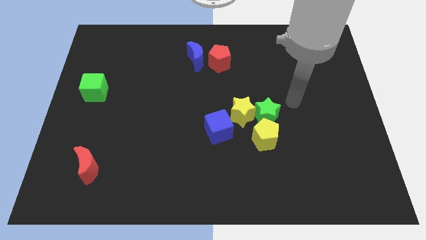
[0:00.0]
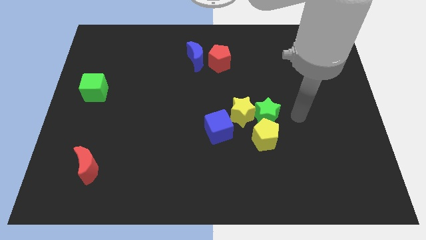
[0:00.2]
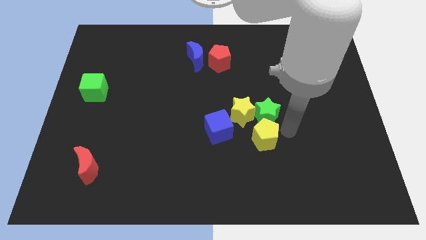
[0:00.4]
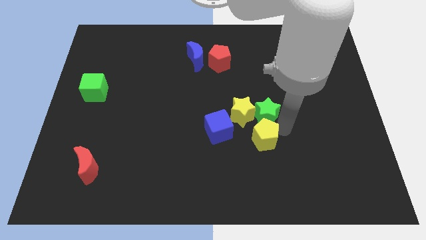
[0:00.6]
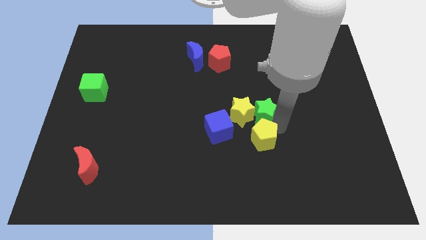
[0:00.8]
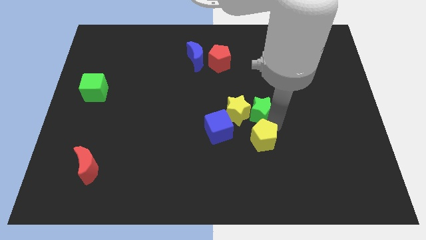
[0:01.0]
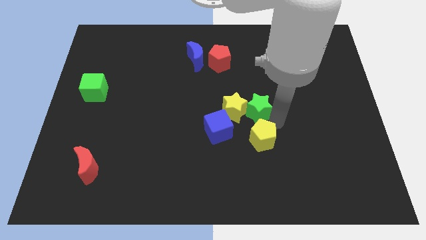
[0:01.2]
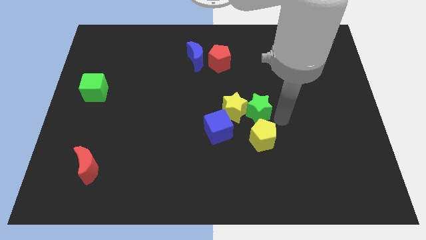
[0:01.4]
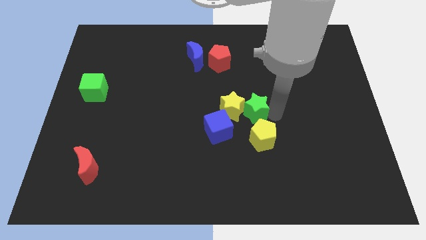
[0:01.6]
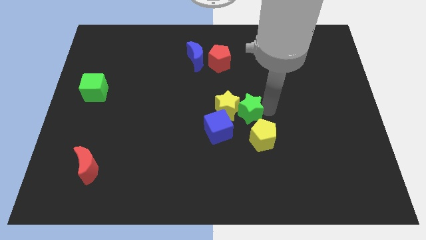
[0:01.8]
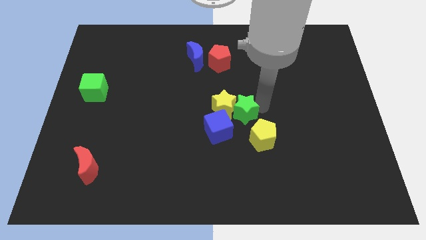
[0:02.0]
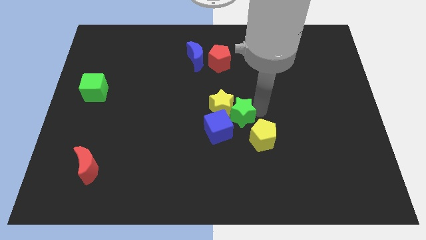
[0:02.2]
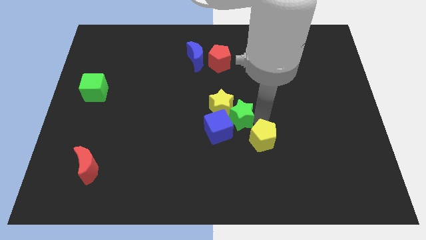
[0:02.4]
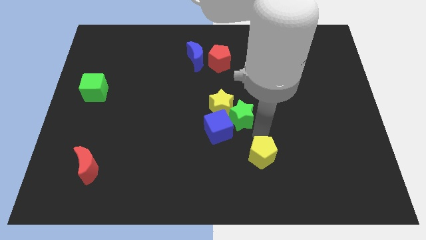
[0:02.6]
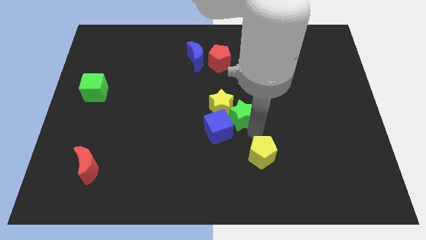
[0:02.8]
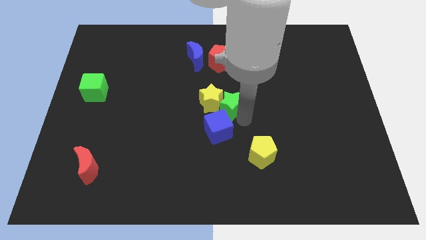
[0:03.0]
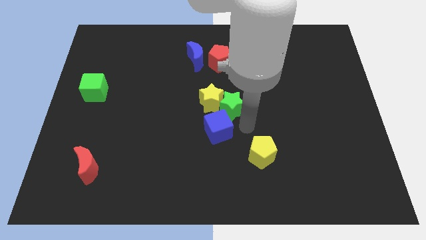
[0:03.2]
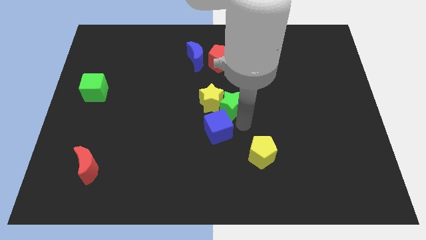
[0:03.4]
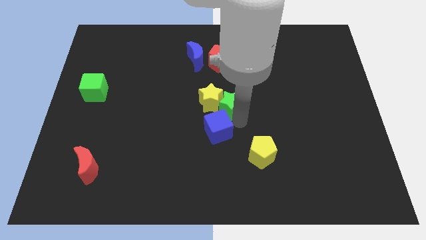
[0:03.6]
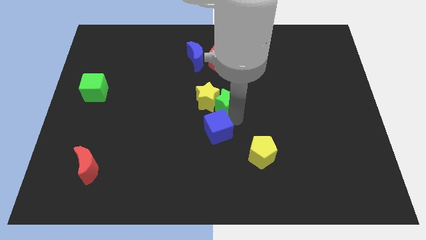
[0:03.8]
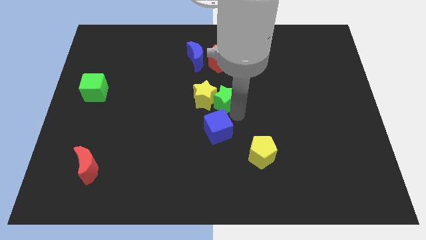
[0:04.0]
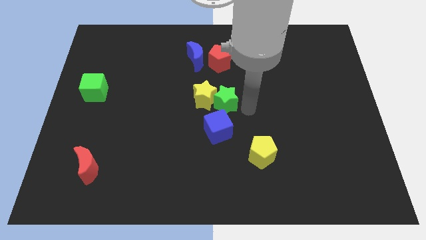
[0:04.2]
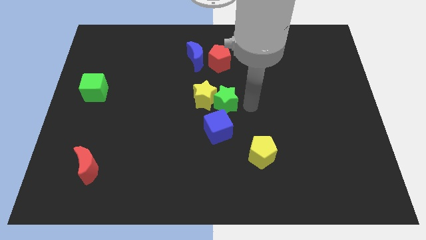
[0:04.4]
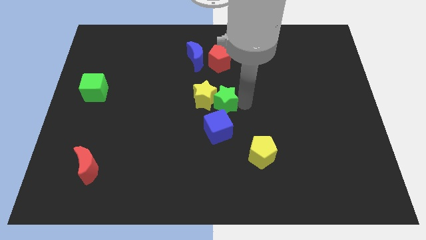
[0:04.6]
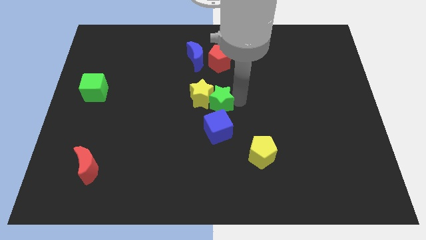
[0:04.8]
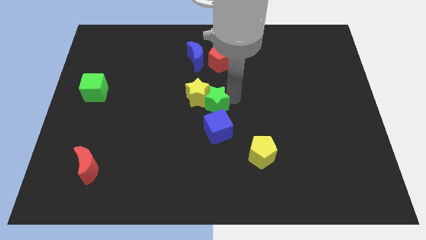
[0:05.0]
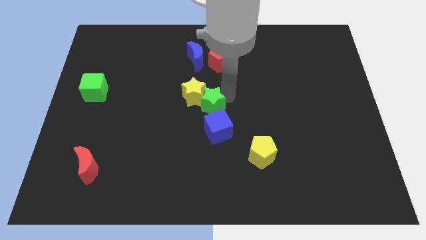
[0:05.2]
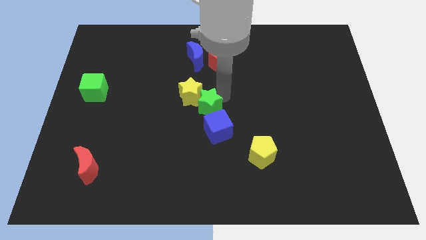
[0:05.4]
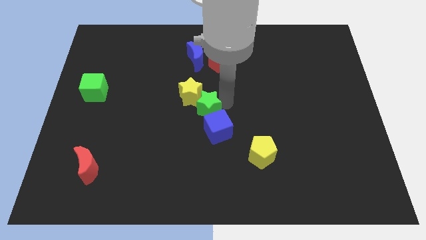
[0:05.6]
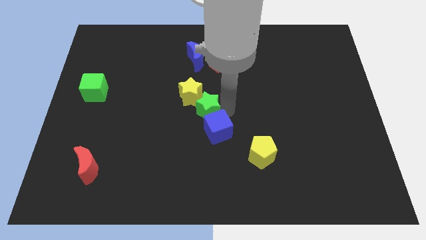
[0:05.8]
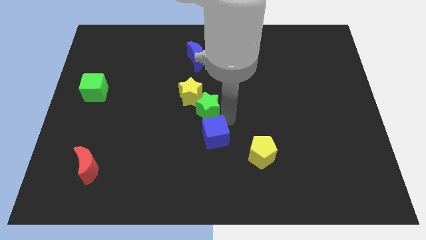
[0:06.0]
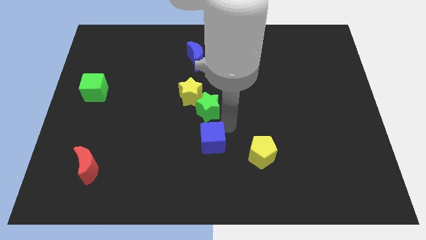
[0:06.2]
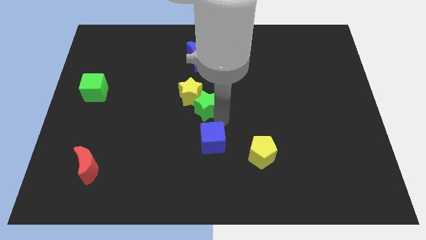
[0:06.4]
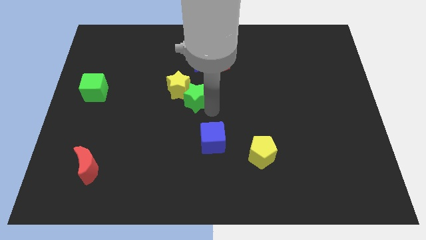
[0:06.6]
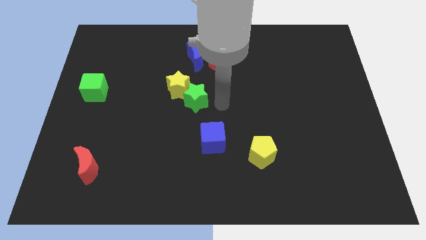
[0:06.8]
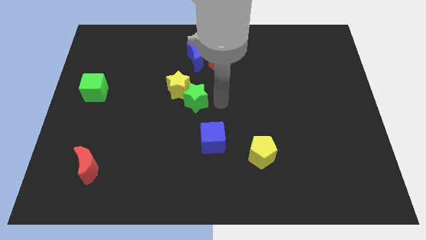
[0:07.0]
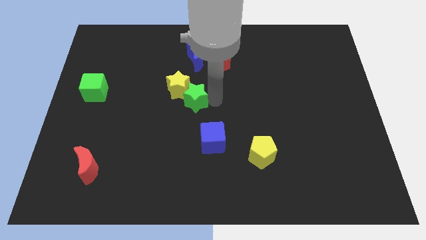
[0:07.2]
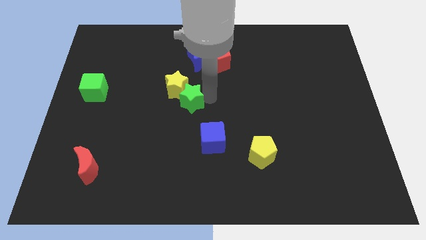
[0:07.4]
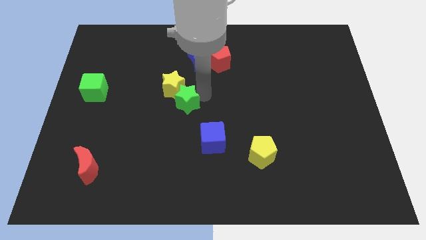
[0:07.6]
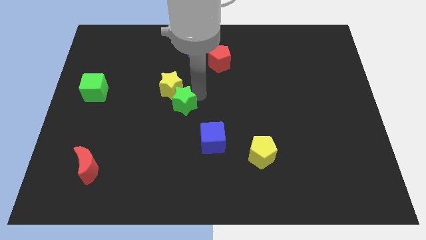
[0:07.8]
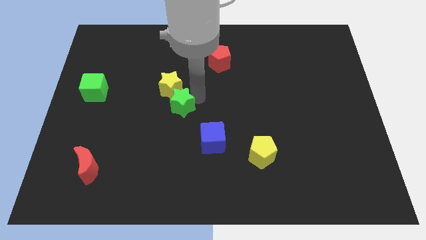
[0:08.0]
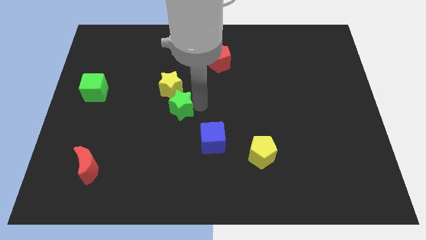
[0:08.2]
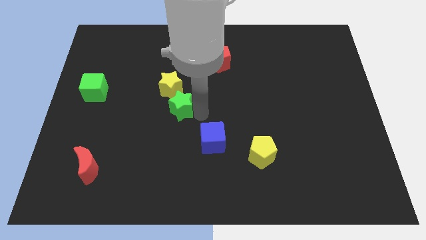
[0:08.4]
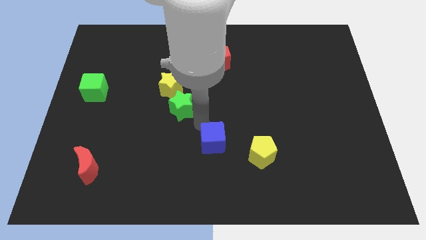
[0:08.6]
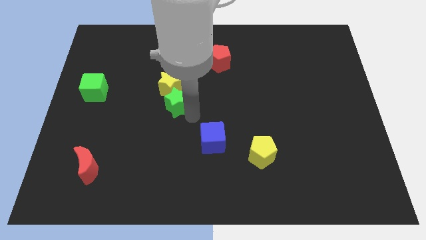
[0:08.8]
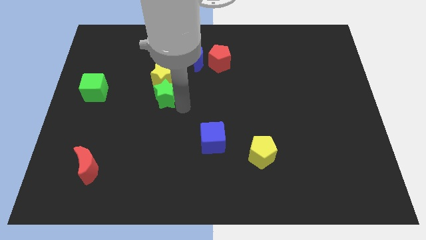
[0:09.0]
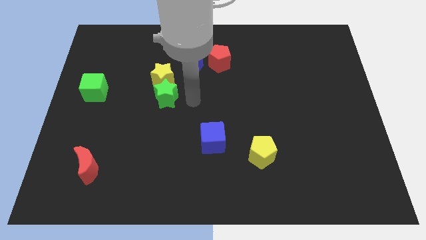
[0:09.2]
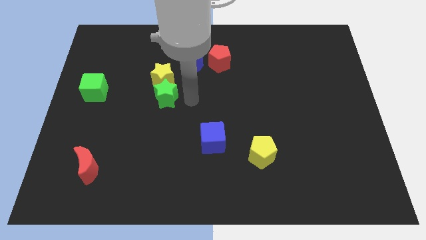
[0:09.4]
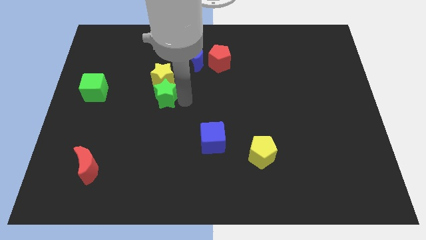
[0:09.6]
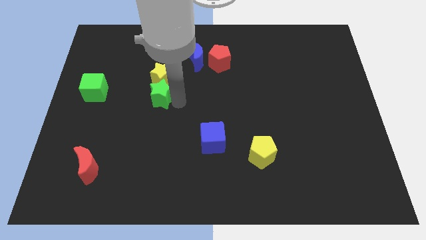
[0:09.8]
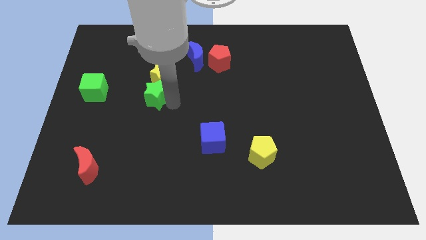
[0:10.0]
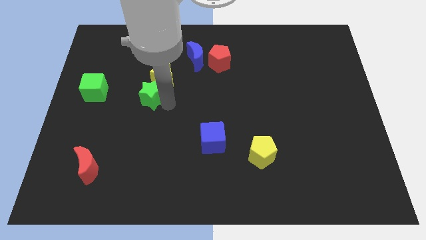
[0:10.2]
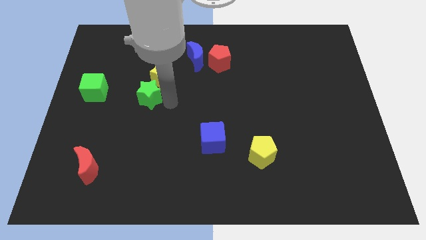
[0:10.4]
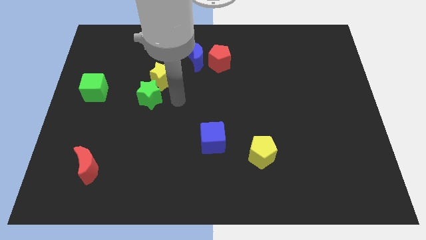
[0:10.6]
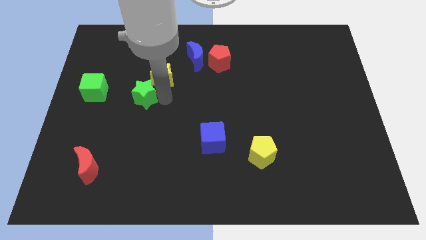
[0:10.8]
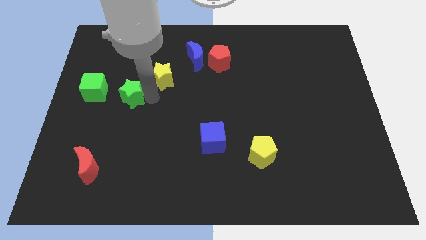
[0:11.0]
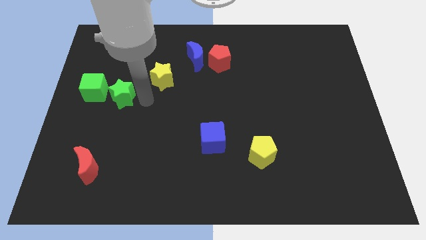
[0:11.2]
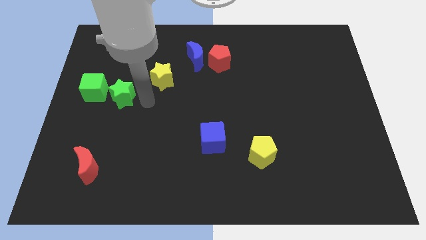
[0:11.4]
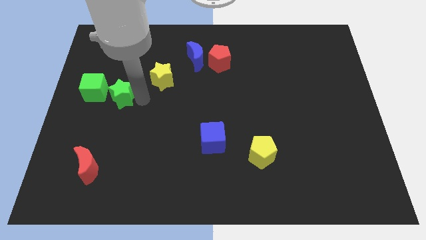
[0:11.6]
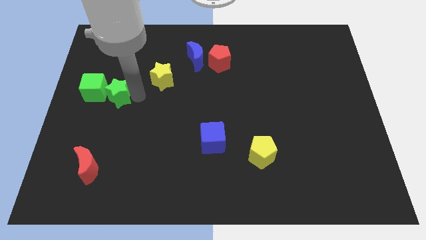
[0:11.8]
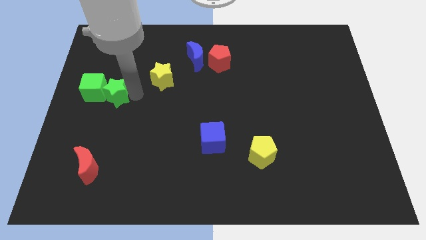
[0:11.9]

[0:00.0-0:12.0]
move the green star to the green cube
